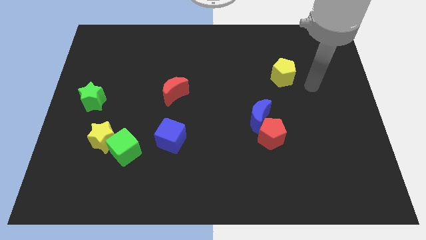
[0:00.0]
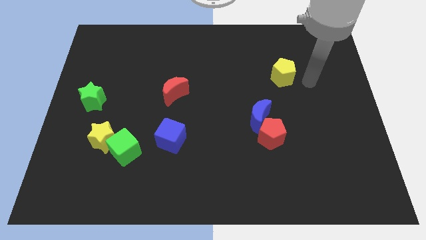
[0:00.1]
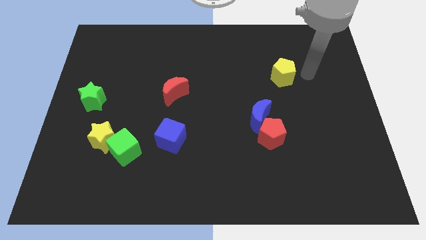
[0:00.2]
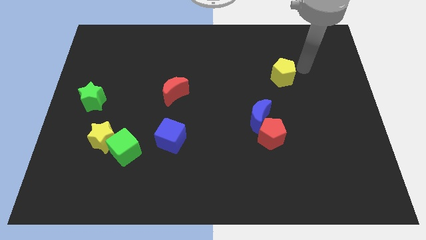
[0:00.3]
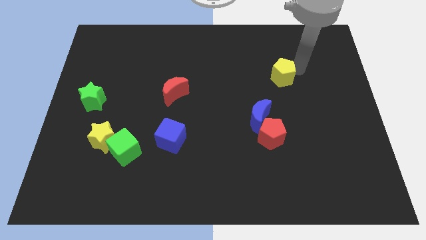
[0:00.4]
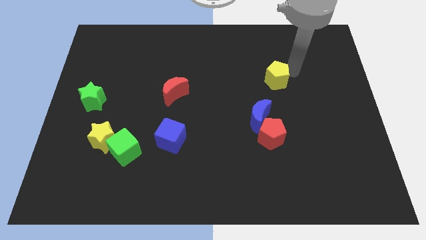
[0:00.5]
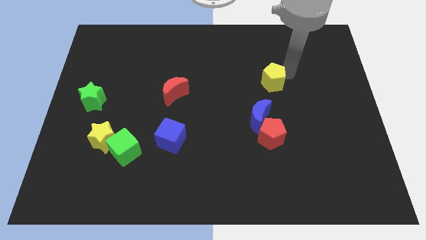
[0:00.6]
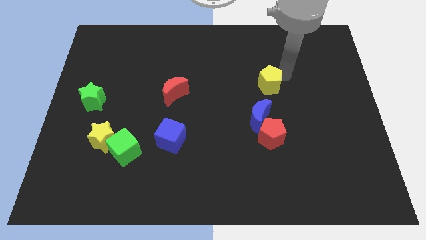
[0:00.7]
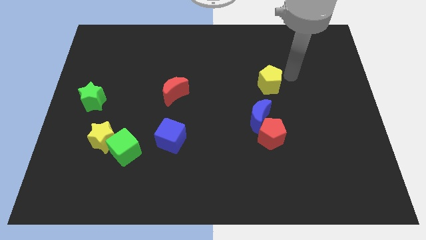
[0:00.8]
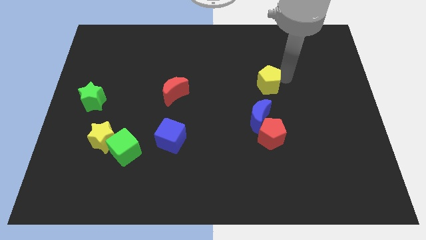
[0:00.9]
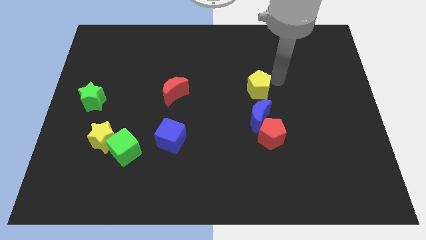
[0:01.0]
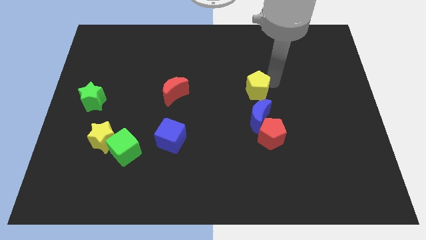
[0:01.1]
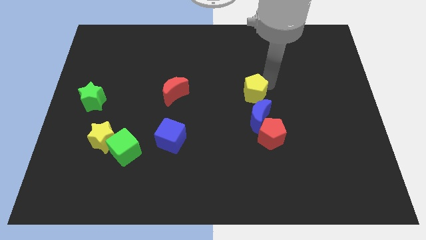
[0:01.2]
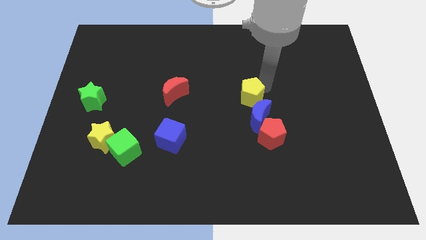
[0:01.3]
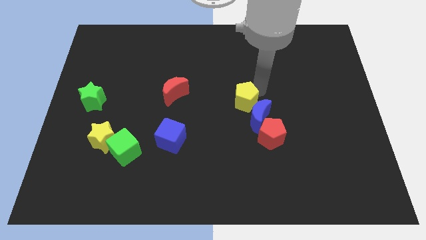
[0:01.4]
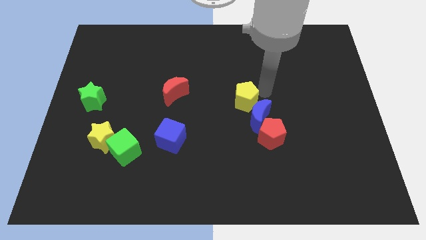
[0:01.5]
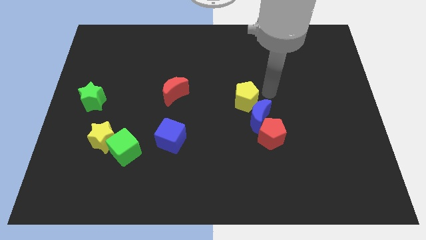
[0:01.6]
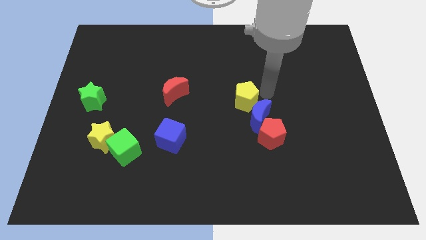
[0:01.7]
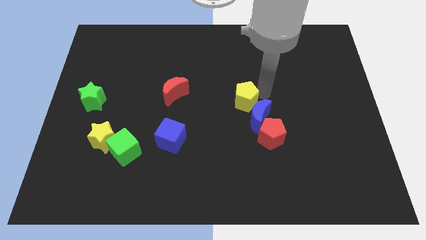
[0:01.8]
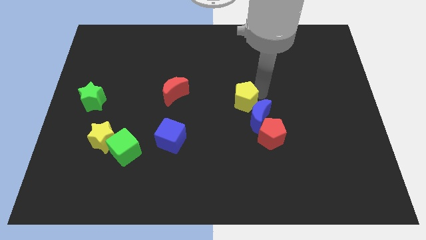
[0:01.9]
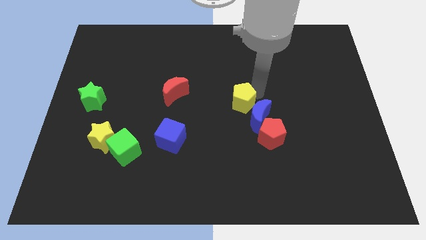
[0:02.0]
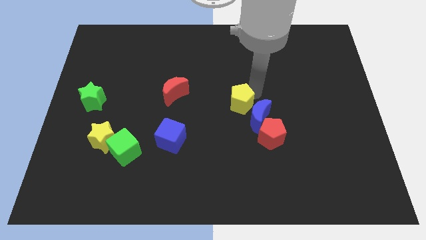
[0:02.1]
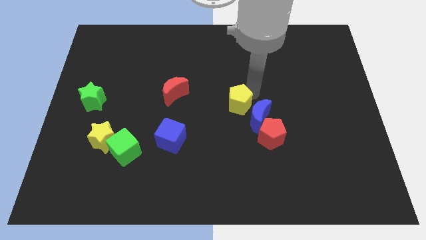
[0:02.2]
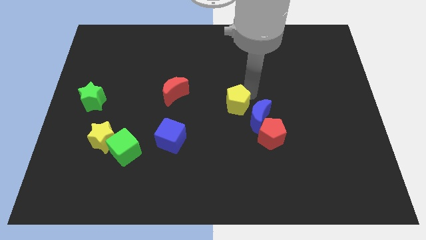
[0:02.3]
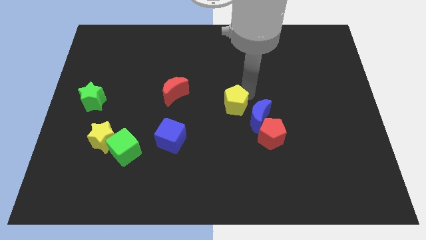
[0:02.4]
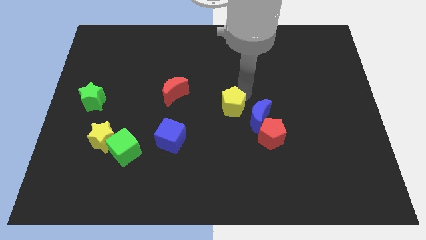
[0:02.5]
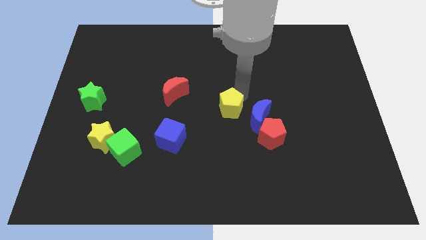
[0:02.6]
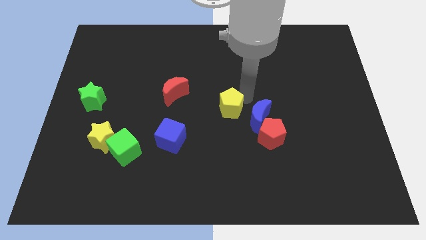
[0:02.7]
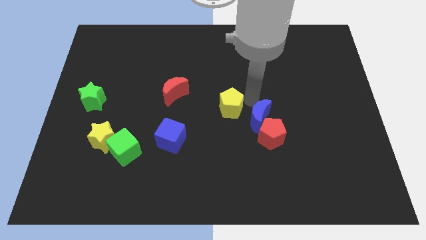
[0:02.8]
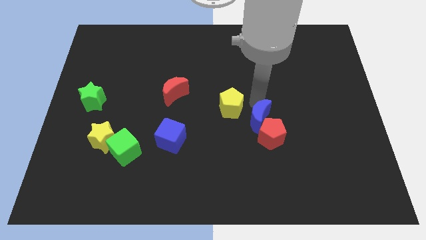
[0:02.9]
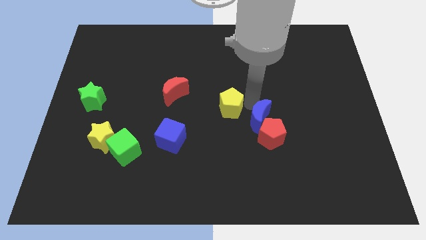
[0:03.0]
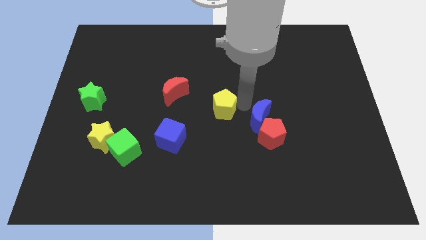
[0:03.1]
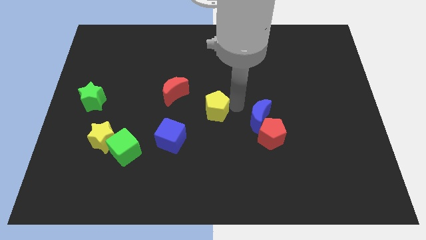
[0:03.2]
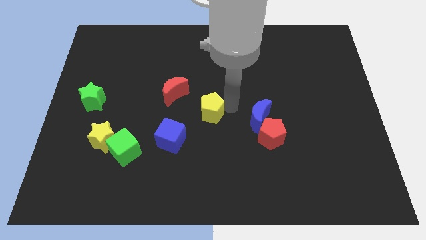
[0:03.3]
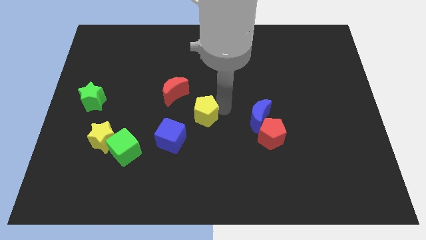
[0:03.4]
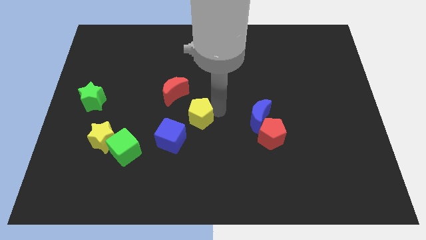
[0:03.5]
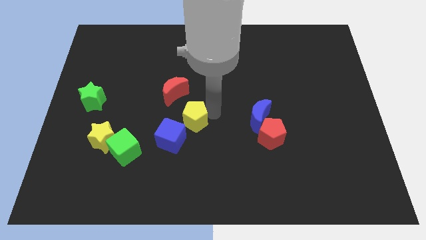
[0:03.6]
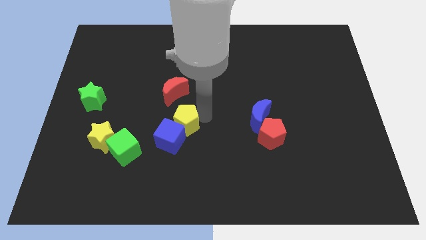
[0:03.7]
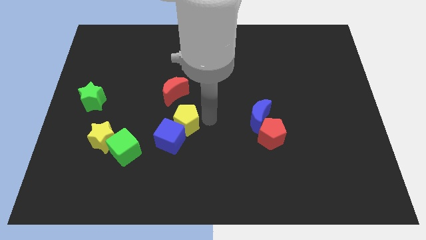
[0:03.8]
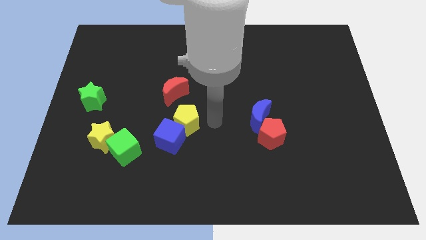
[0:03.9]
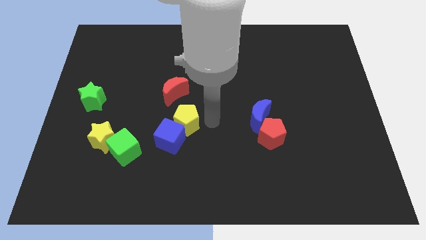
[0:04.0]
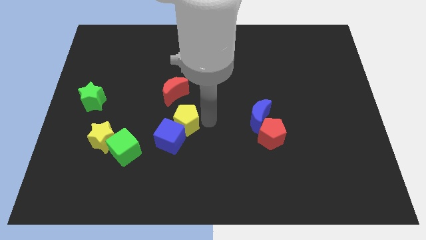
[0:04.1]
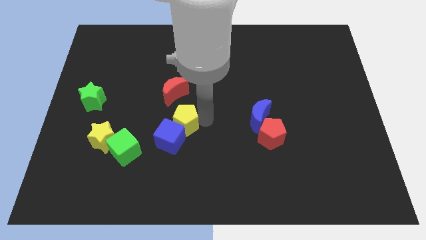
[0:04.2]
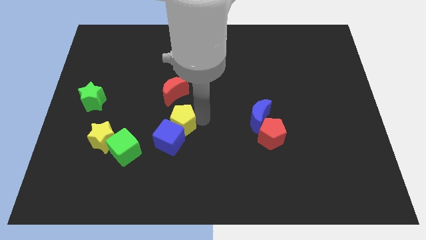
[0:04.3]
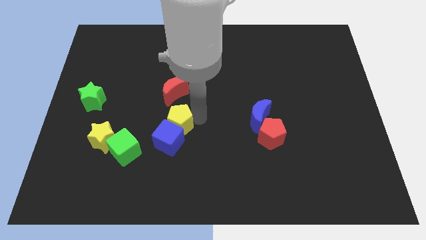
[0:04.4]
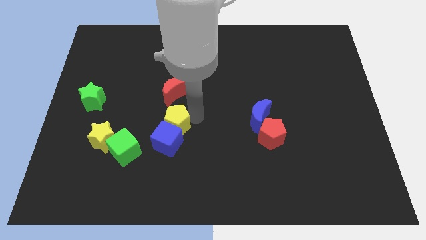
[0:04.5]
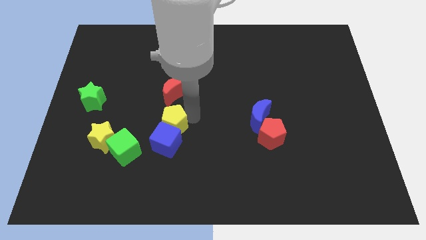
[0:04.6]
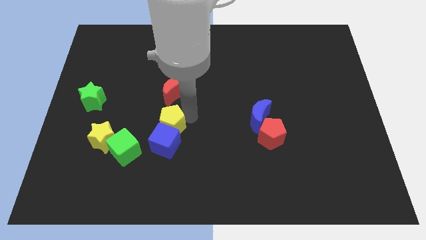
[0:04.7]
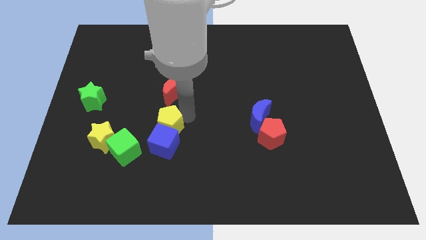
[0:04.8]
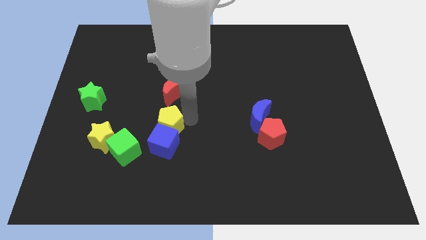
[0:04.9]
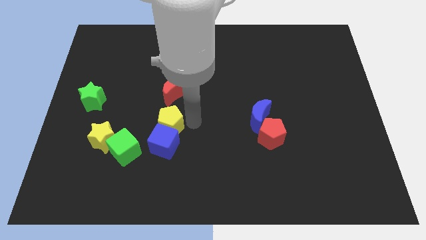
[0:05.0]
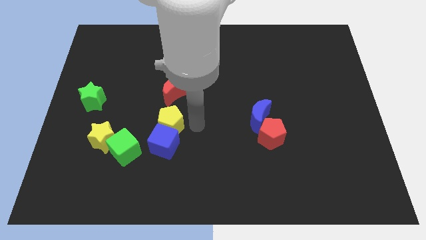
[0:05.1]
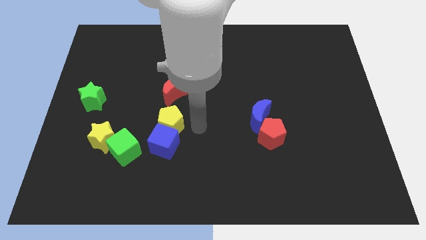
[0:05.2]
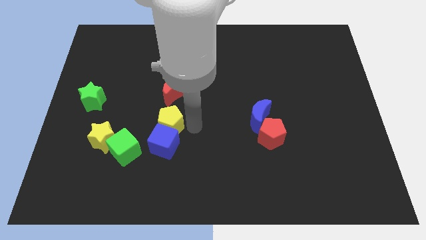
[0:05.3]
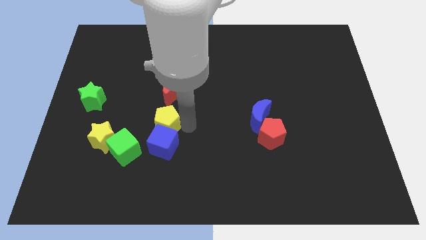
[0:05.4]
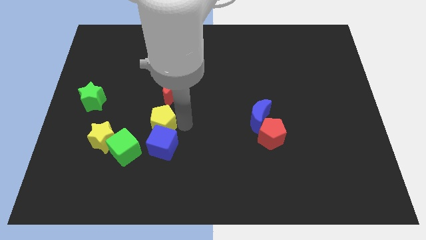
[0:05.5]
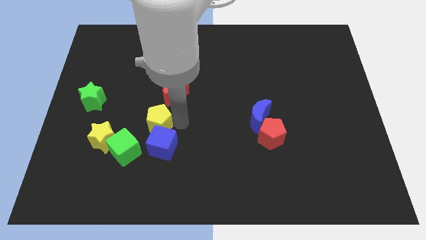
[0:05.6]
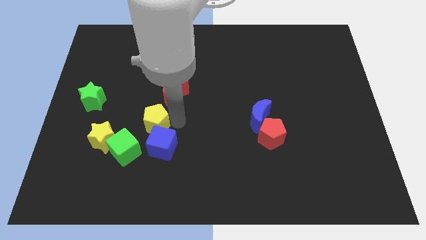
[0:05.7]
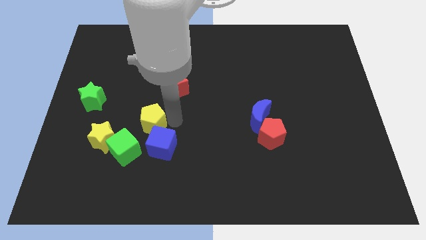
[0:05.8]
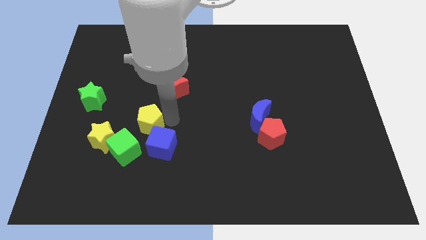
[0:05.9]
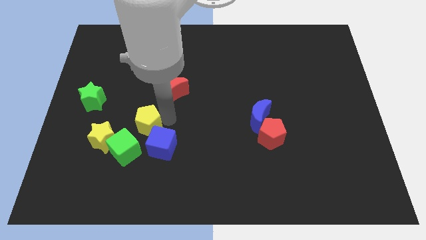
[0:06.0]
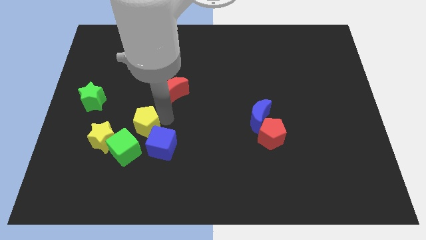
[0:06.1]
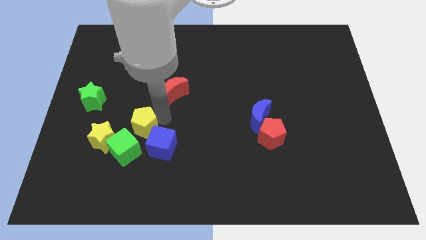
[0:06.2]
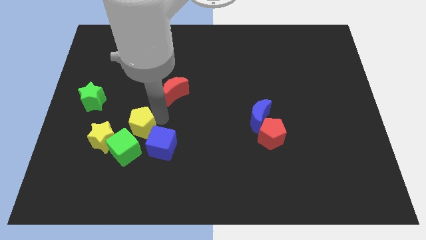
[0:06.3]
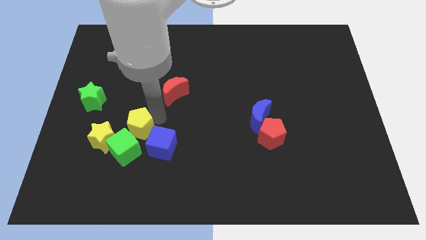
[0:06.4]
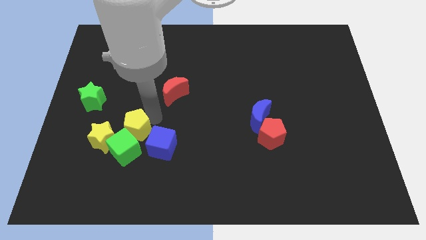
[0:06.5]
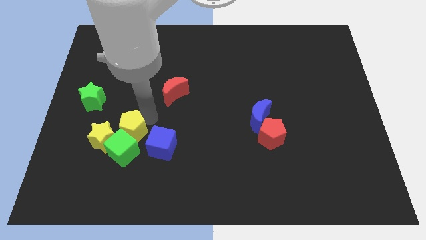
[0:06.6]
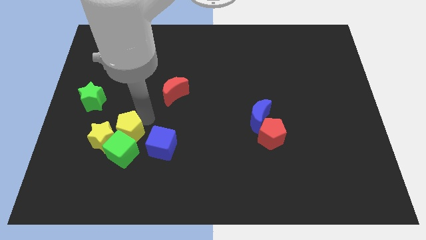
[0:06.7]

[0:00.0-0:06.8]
put the yellow pentagon close to the yellow star

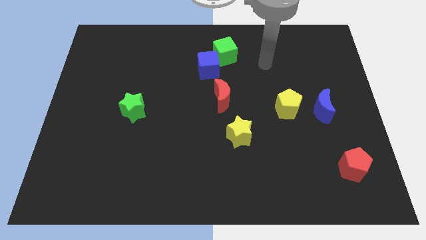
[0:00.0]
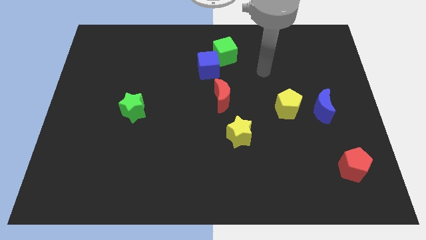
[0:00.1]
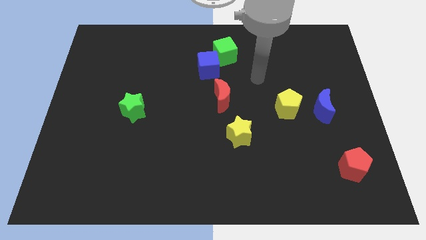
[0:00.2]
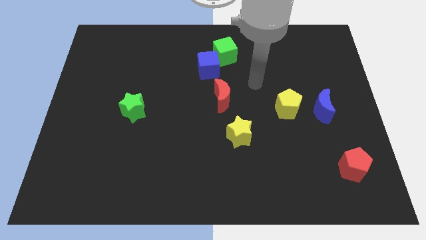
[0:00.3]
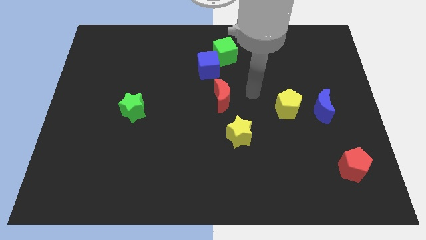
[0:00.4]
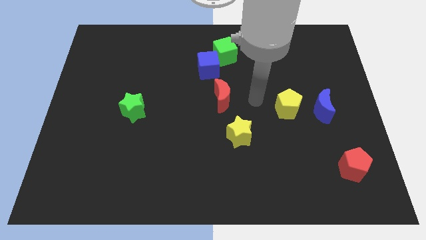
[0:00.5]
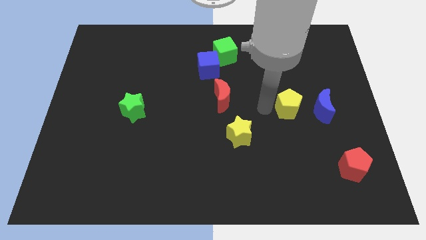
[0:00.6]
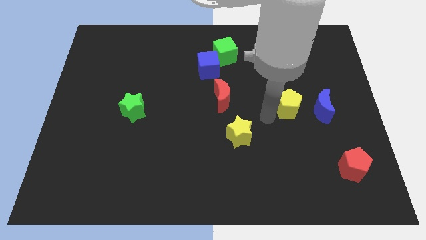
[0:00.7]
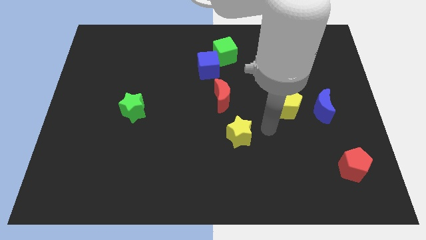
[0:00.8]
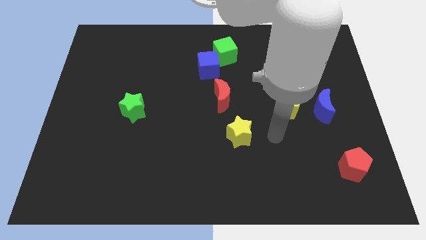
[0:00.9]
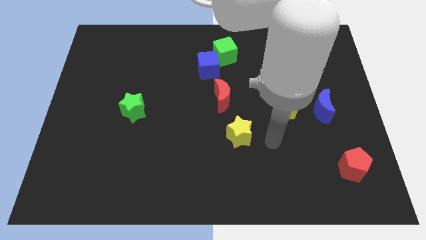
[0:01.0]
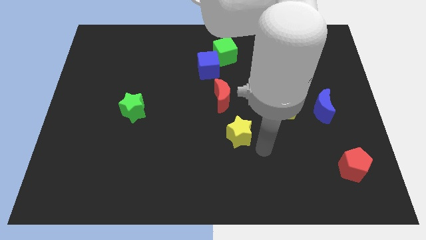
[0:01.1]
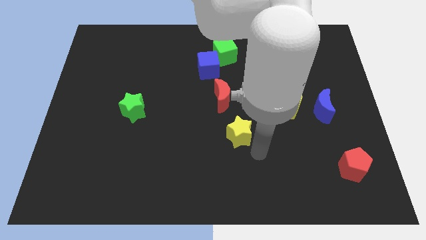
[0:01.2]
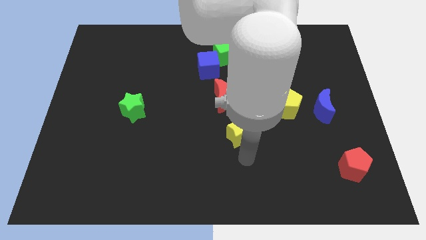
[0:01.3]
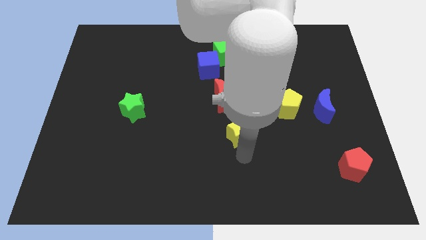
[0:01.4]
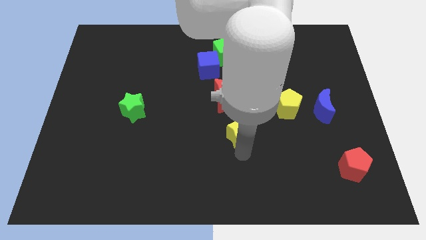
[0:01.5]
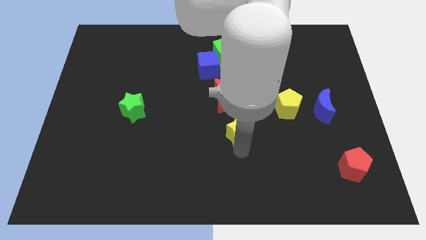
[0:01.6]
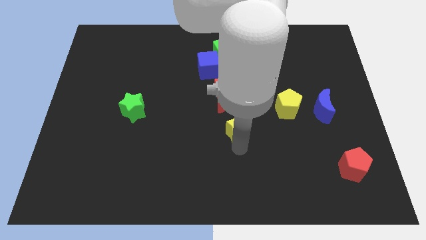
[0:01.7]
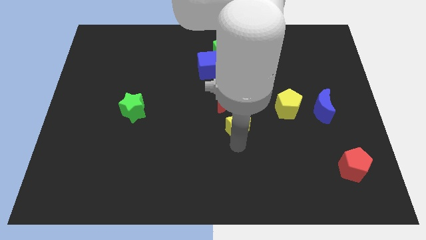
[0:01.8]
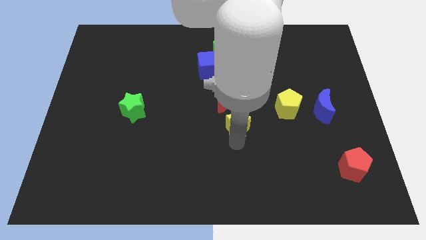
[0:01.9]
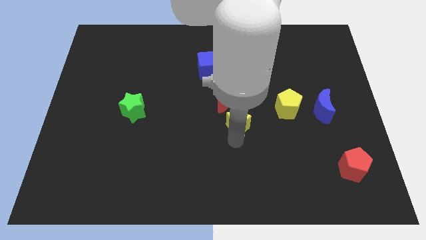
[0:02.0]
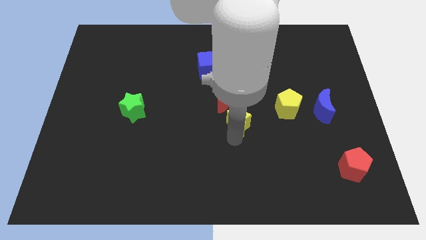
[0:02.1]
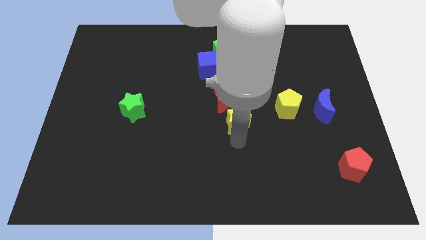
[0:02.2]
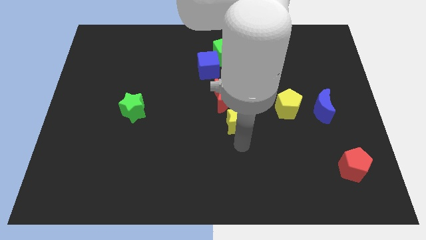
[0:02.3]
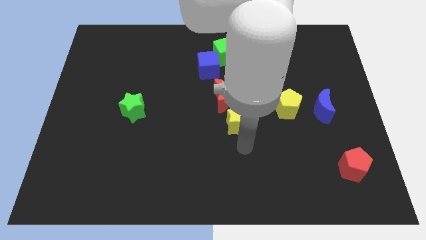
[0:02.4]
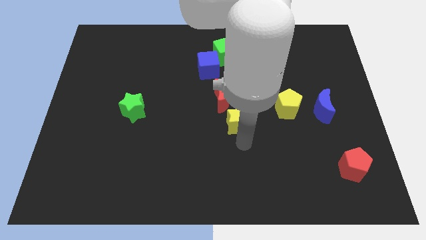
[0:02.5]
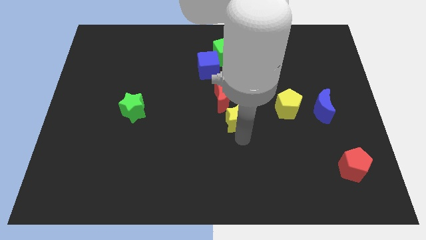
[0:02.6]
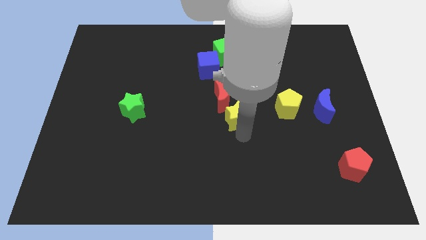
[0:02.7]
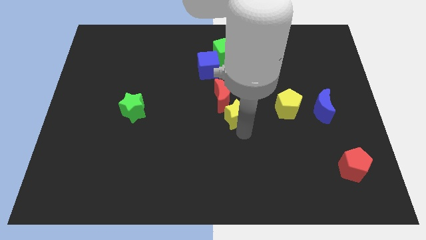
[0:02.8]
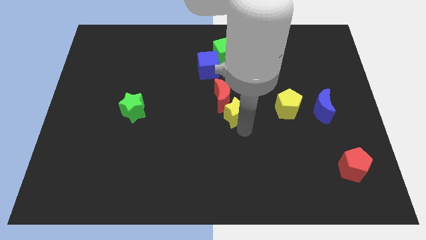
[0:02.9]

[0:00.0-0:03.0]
slide the yellow star to the red moon
